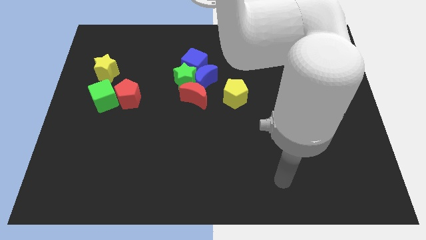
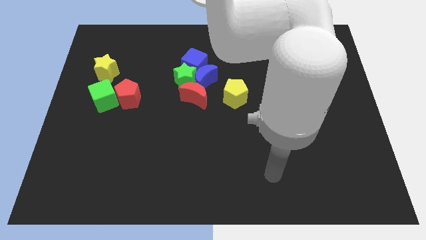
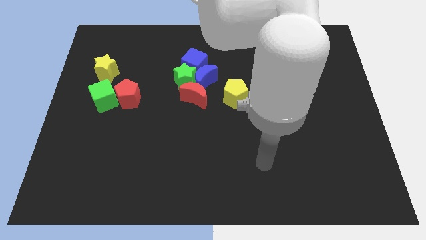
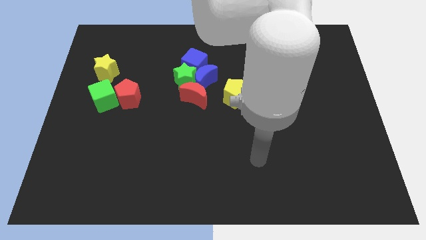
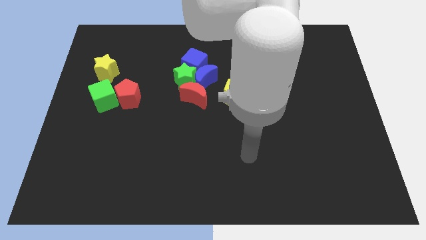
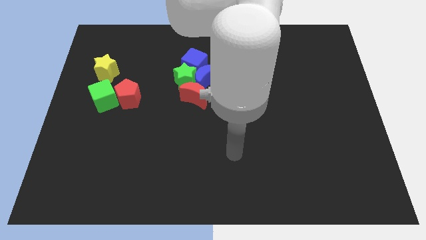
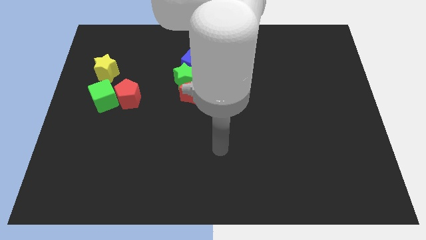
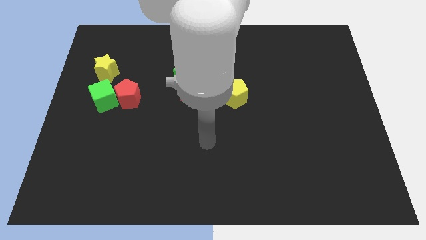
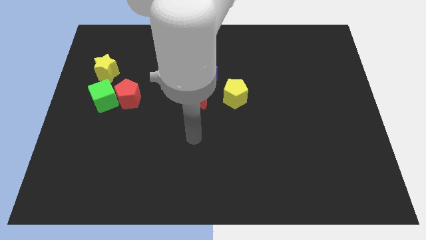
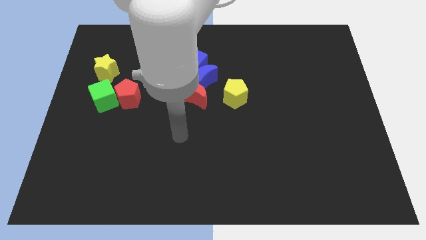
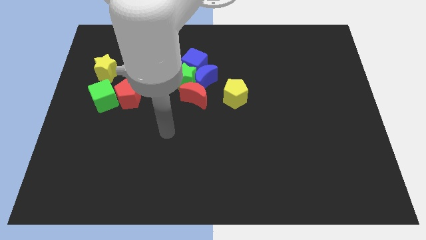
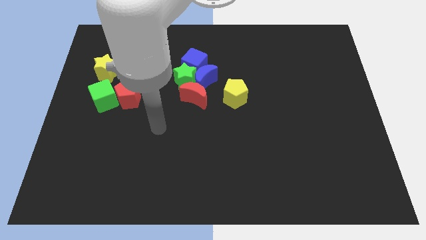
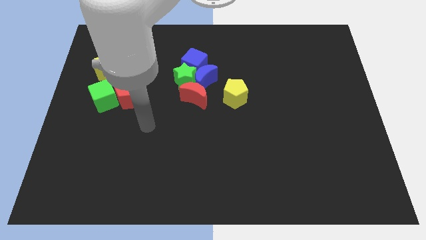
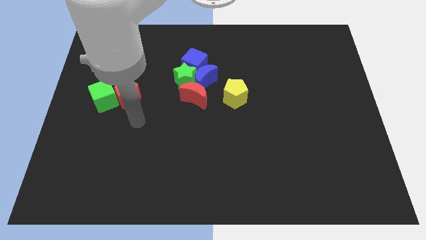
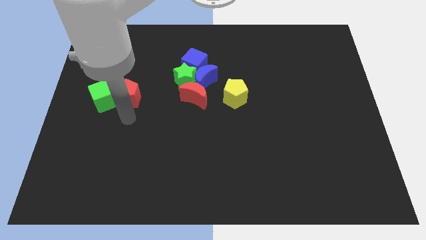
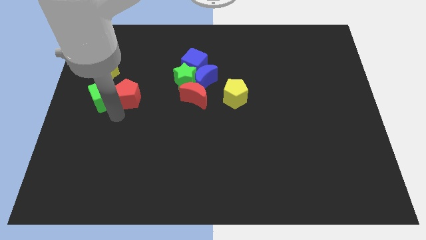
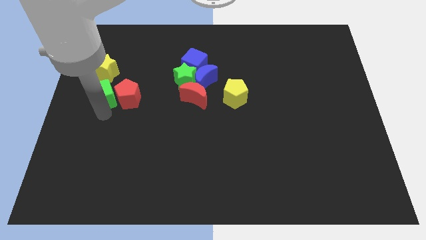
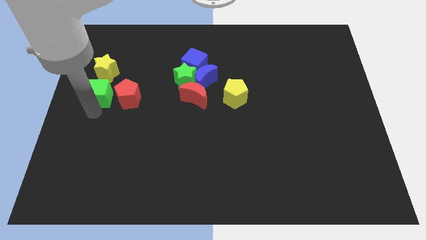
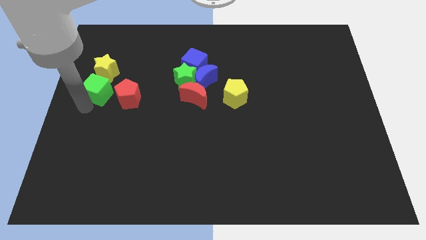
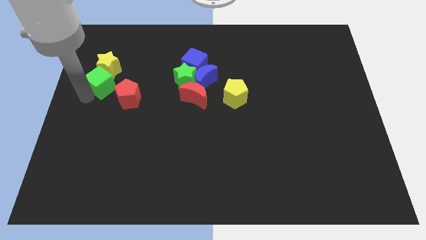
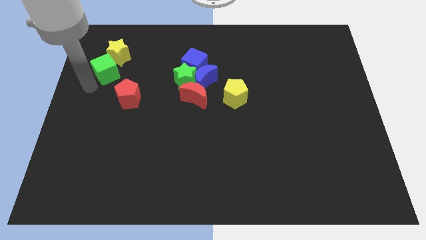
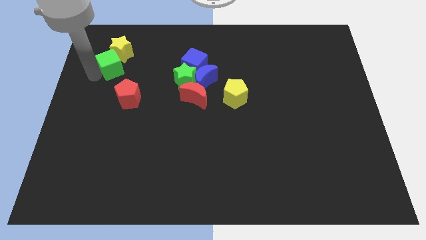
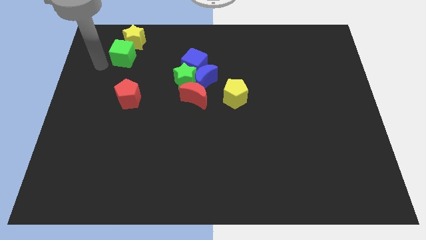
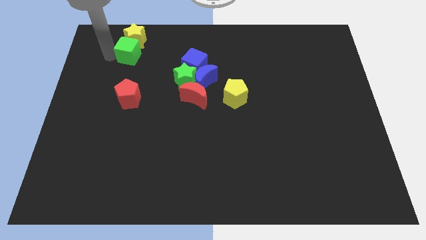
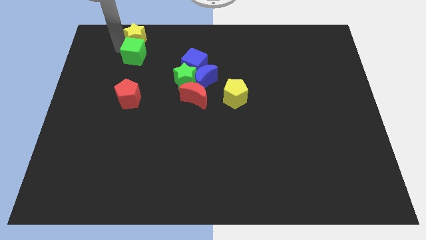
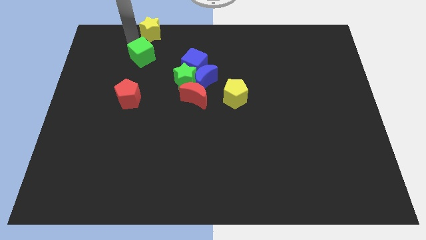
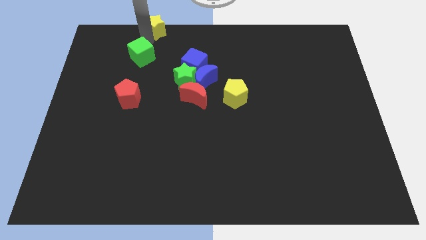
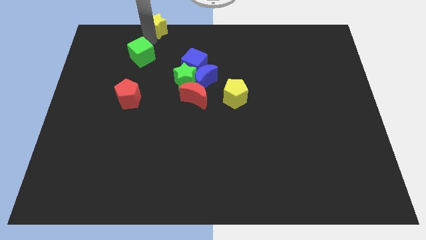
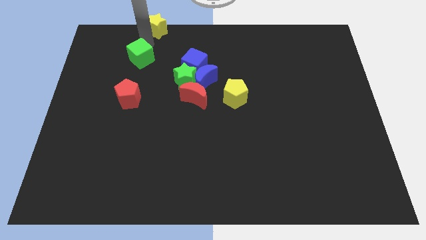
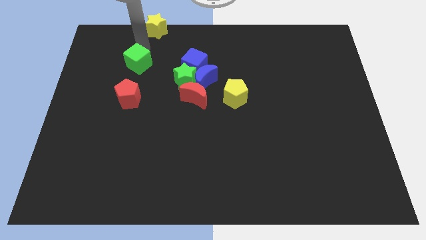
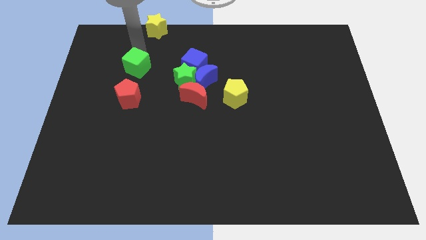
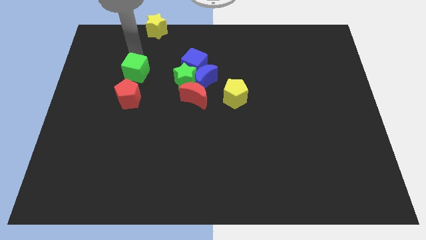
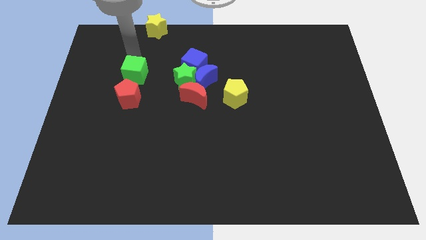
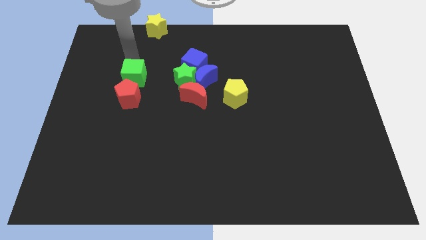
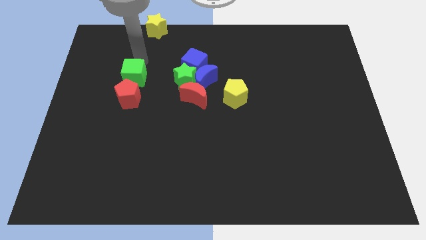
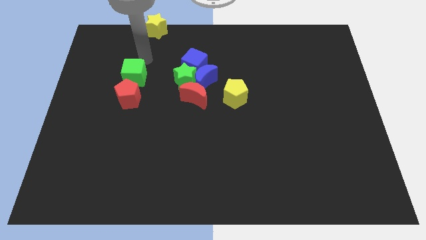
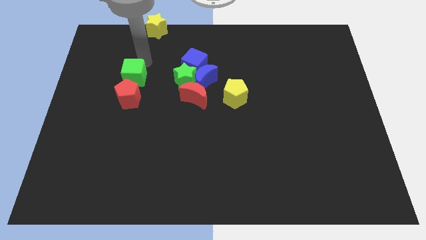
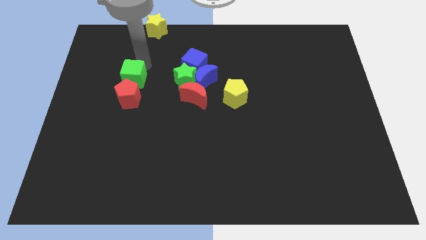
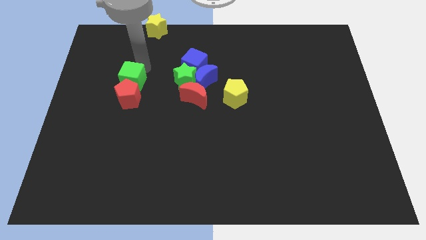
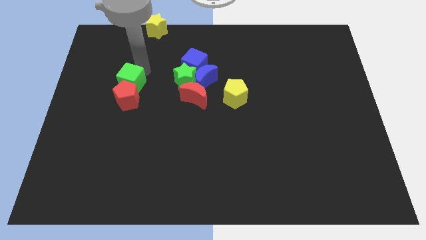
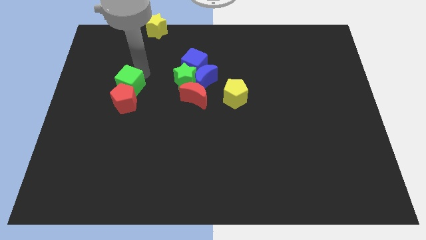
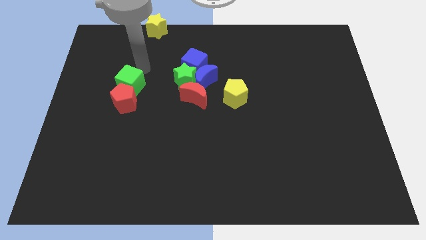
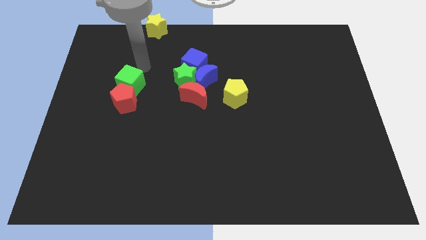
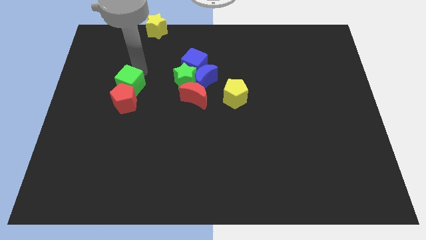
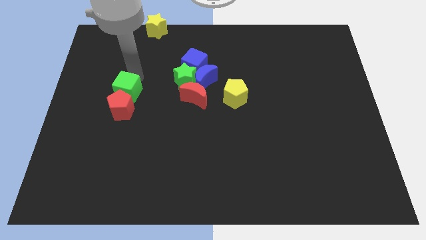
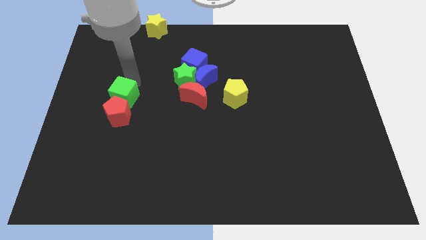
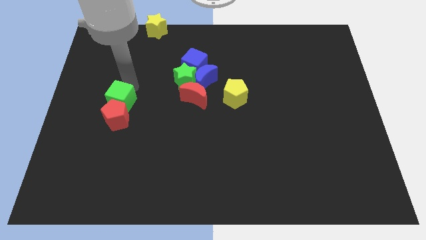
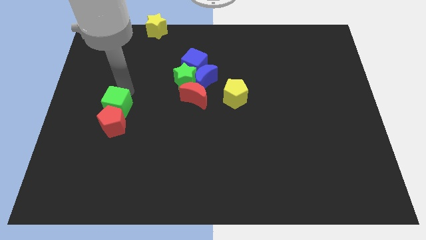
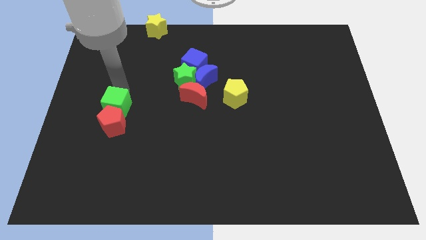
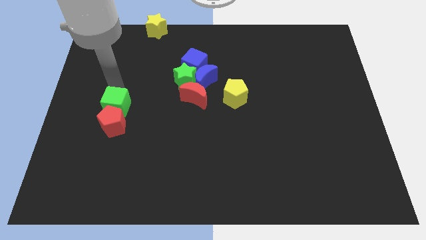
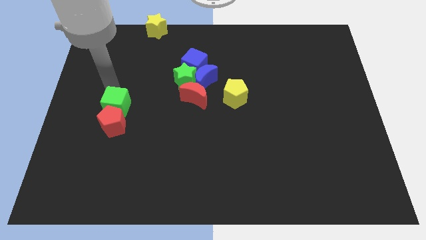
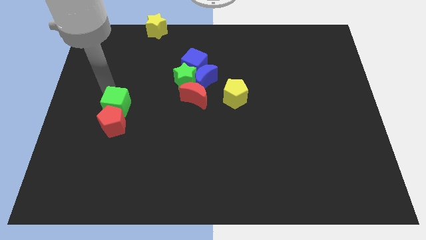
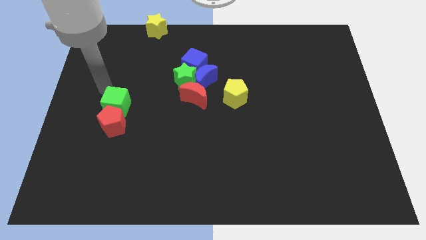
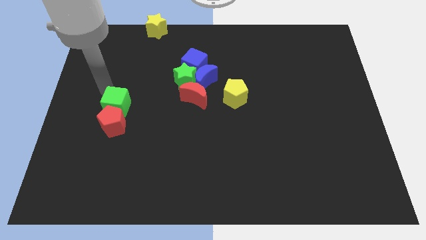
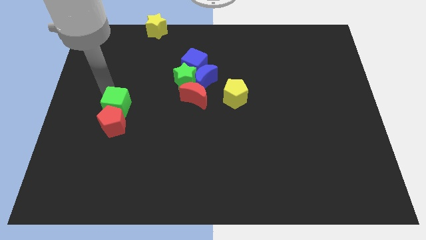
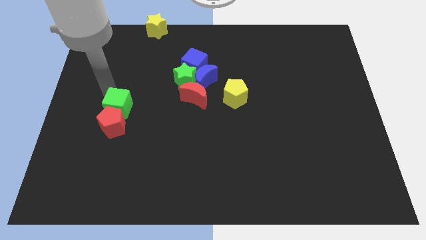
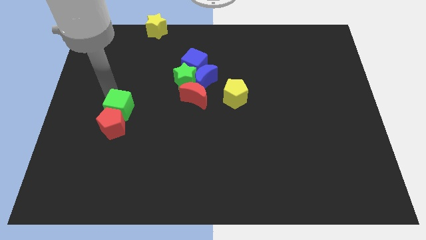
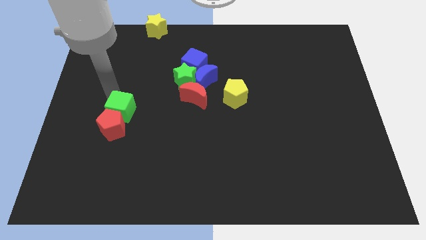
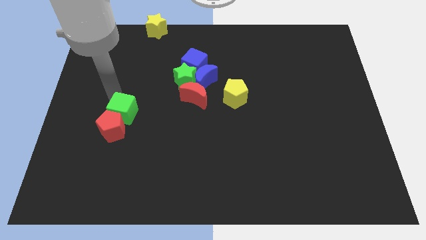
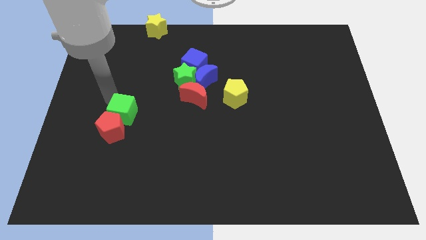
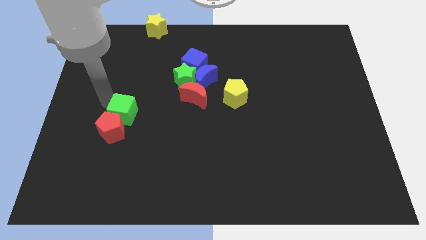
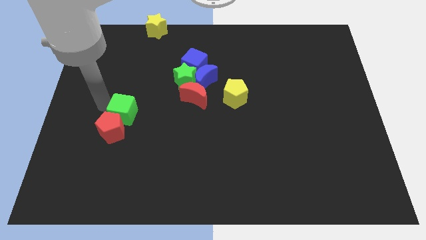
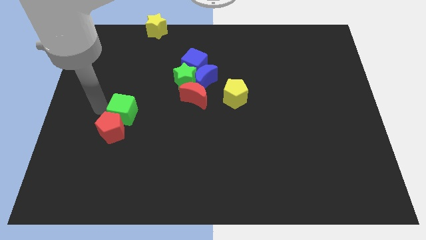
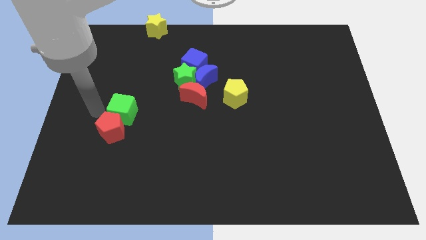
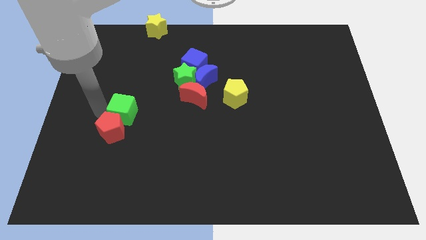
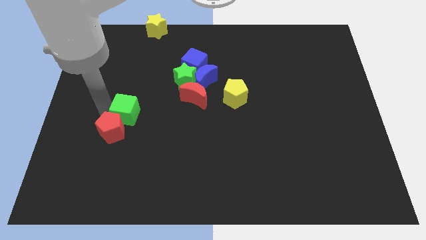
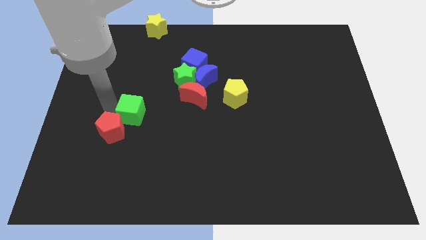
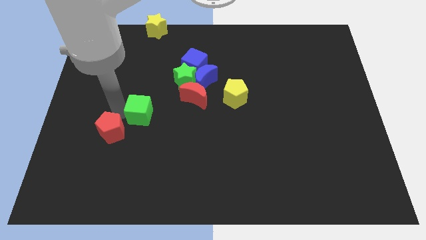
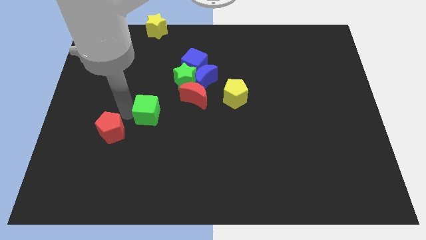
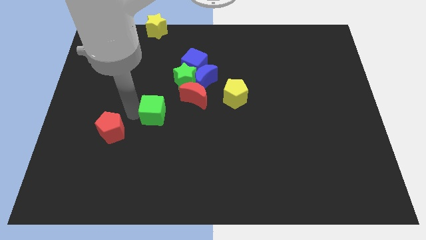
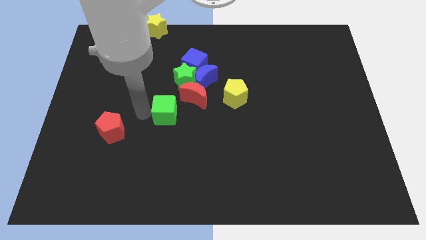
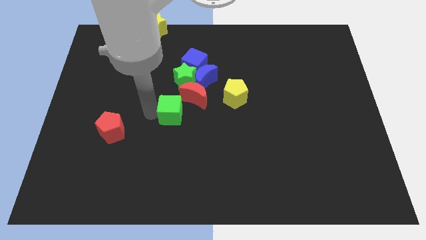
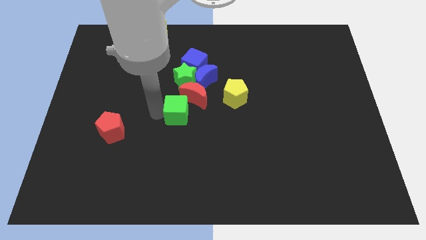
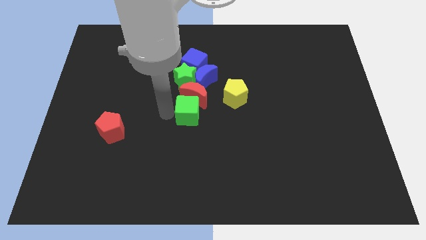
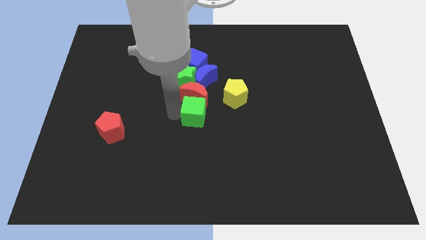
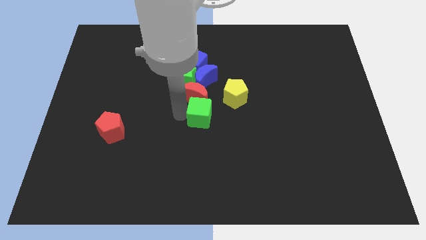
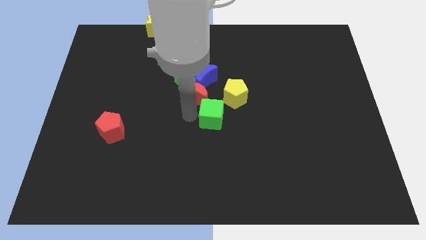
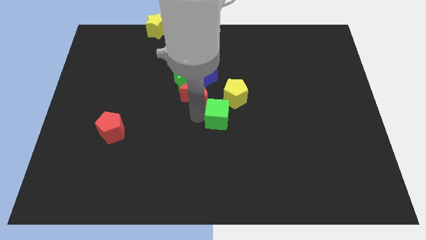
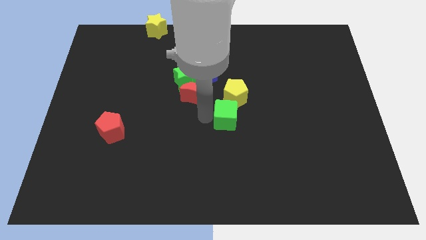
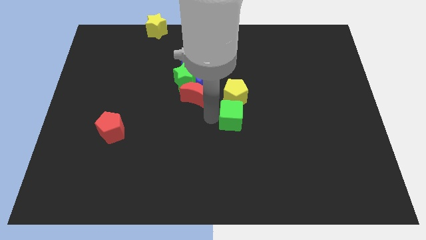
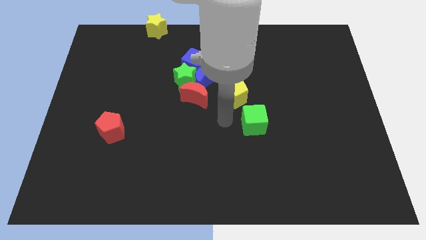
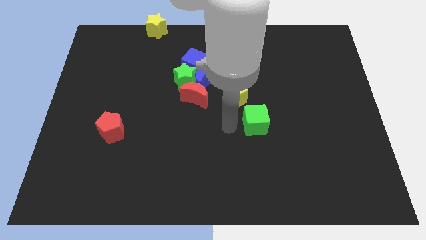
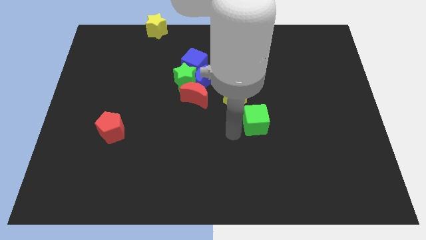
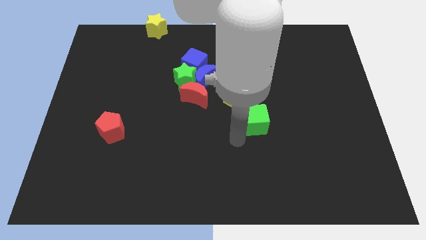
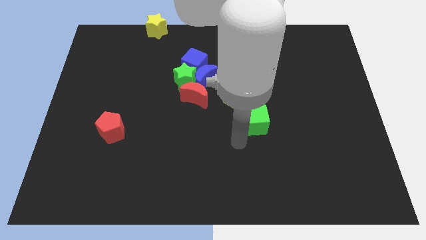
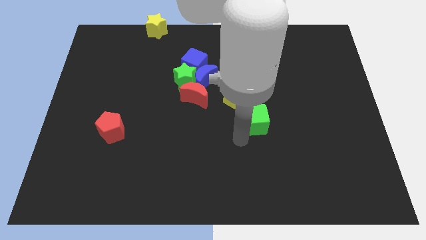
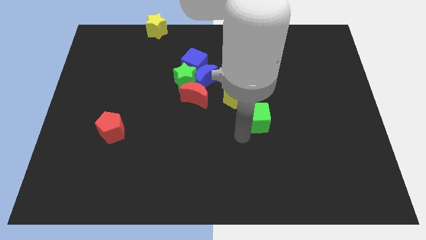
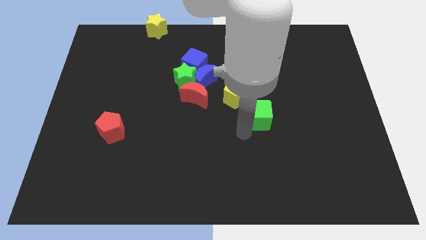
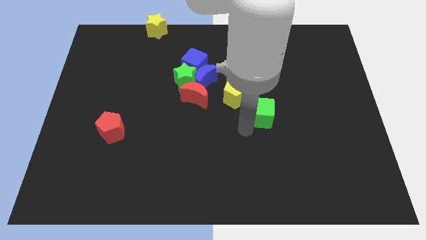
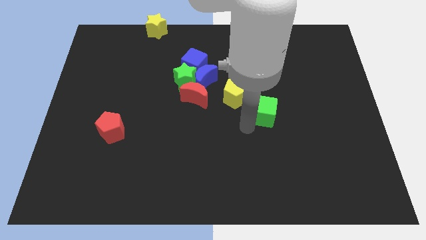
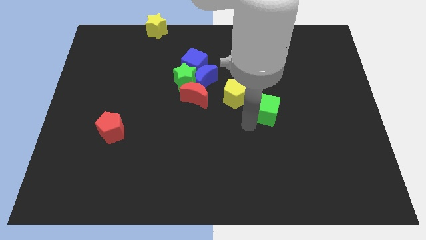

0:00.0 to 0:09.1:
push the green cube to the right side of the yellow pentagon
